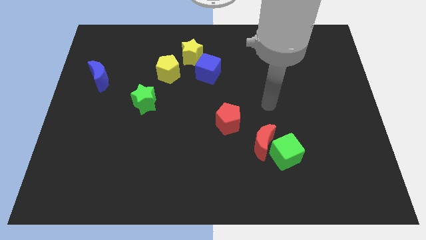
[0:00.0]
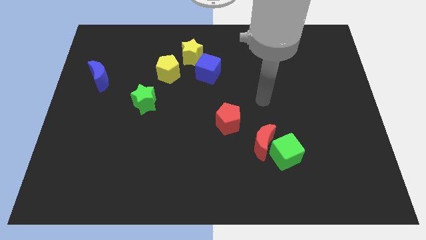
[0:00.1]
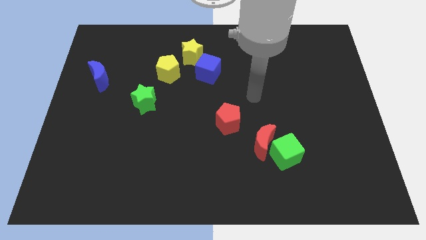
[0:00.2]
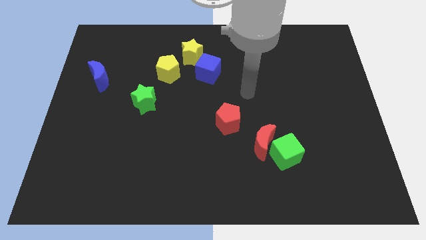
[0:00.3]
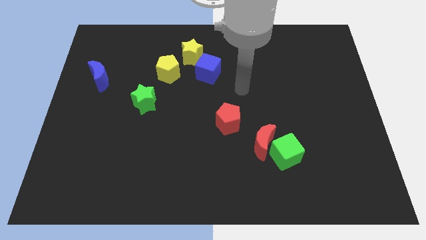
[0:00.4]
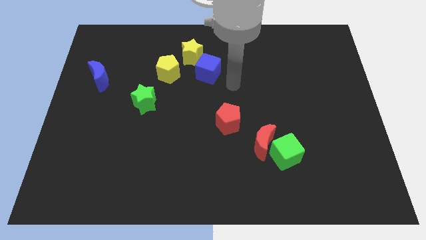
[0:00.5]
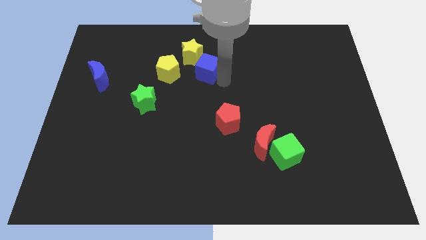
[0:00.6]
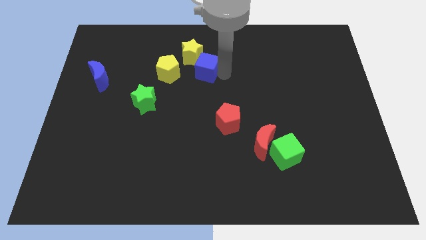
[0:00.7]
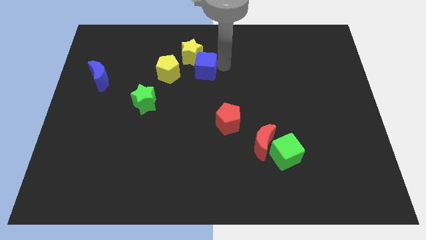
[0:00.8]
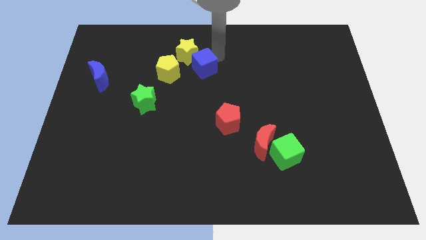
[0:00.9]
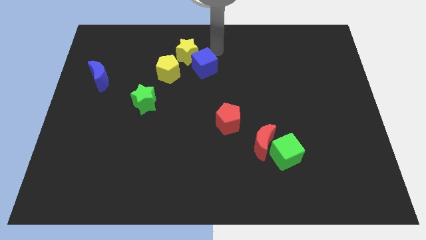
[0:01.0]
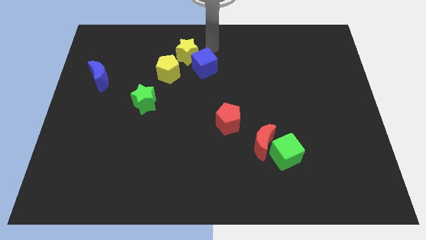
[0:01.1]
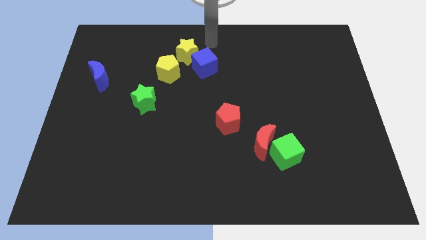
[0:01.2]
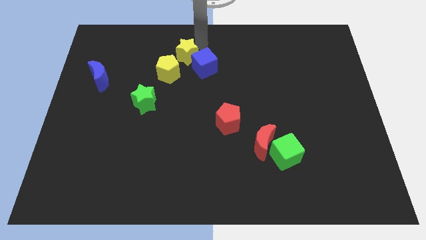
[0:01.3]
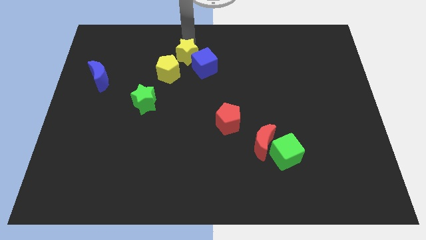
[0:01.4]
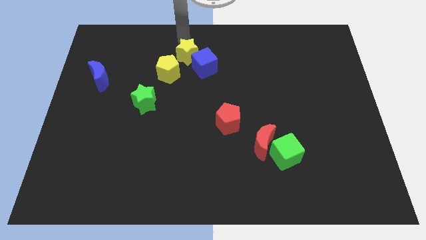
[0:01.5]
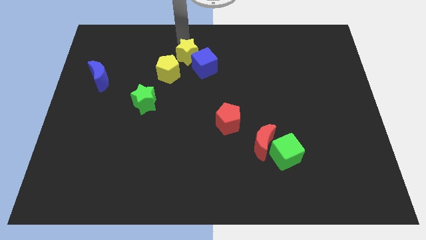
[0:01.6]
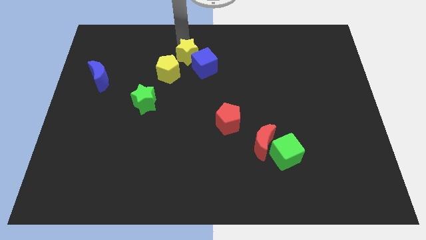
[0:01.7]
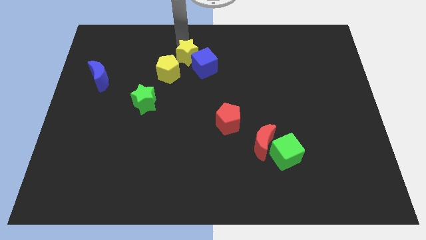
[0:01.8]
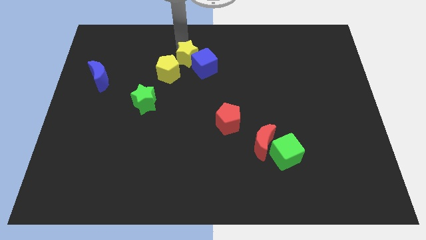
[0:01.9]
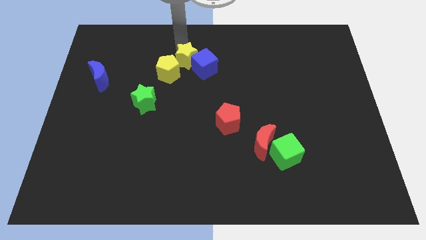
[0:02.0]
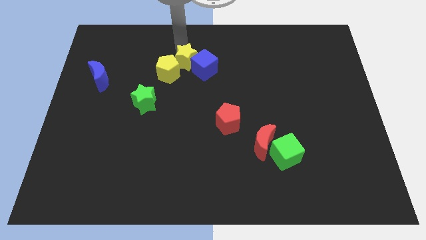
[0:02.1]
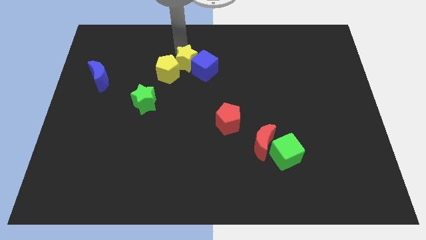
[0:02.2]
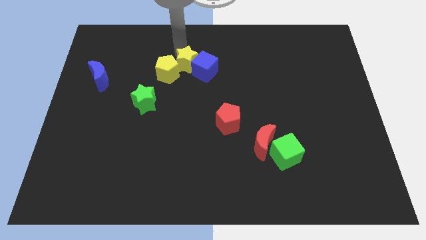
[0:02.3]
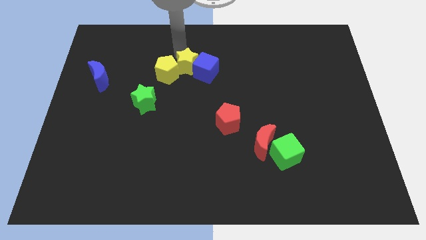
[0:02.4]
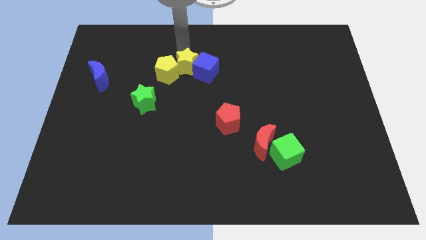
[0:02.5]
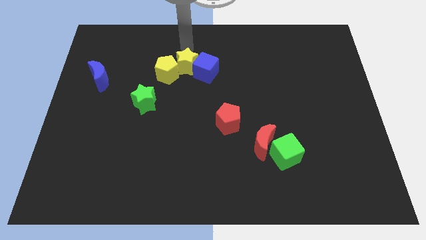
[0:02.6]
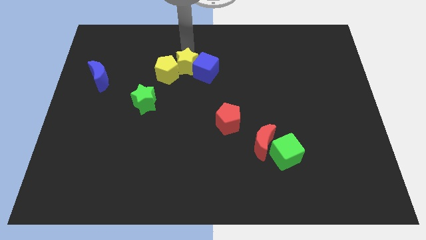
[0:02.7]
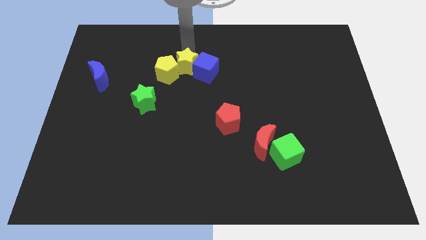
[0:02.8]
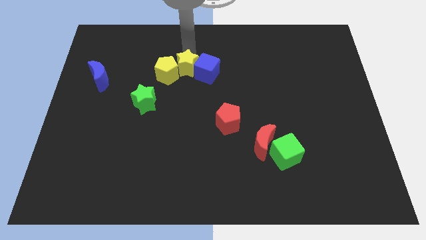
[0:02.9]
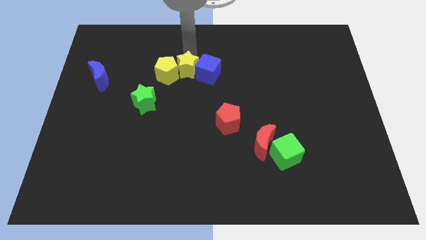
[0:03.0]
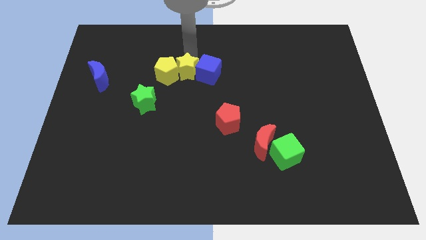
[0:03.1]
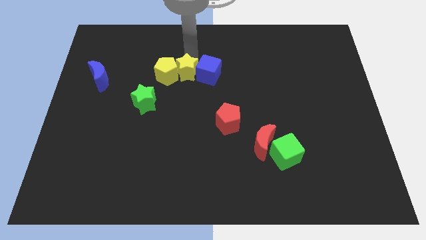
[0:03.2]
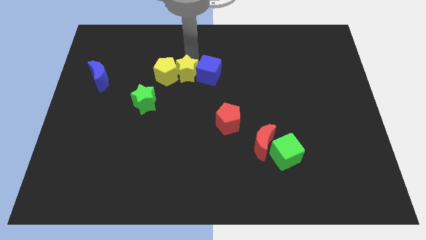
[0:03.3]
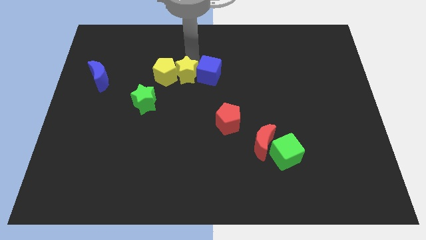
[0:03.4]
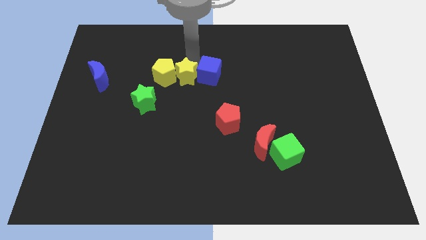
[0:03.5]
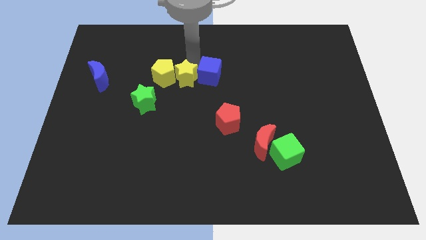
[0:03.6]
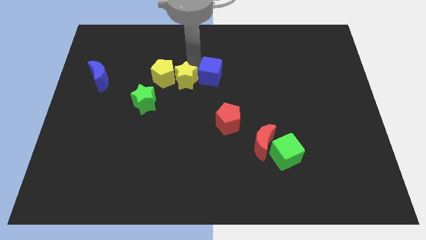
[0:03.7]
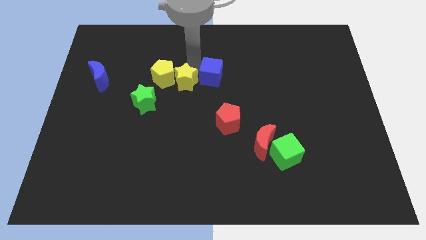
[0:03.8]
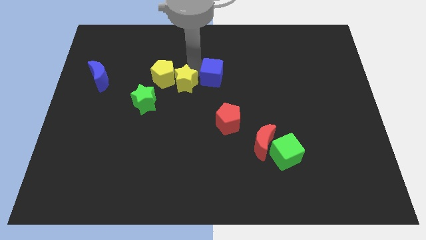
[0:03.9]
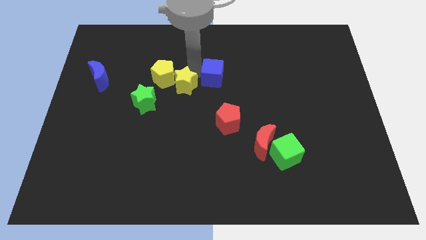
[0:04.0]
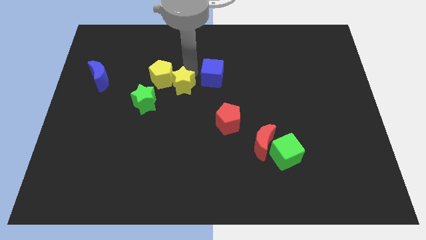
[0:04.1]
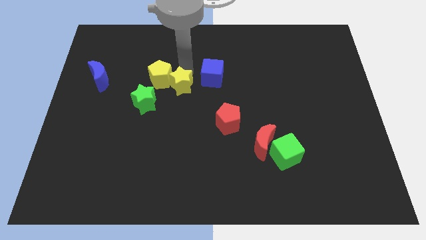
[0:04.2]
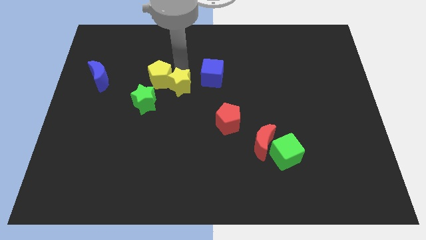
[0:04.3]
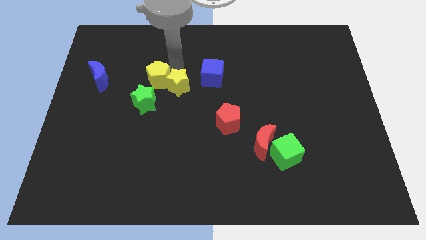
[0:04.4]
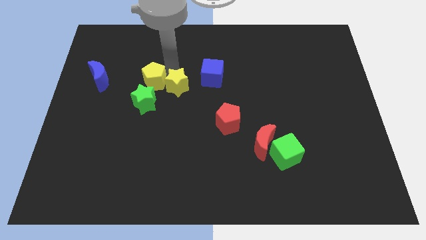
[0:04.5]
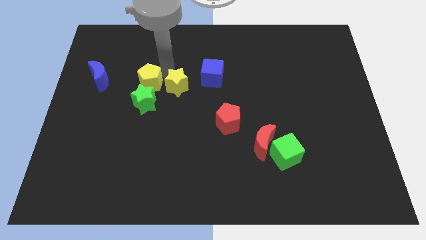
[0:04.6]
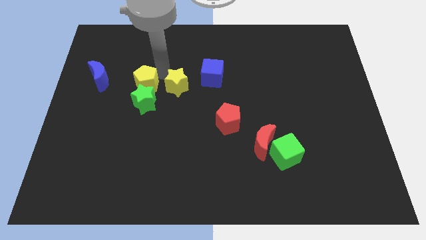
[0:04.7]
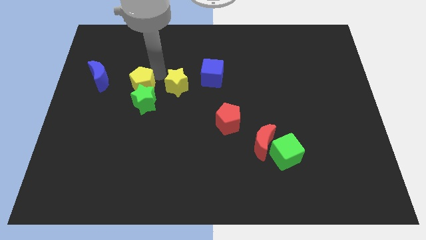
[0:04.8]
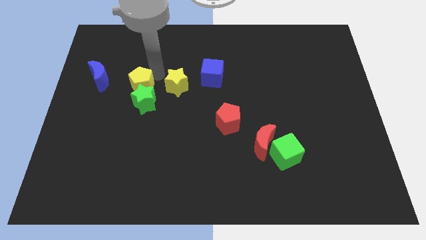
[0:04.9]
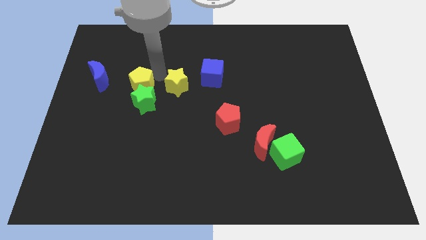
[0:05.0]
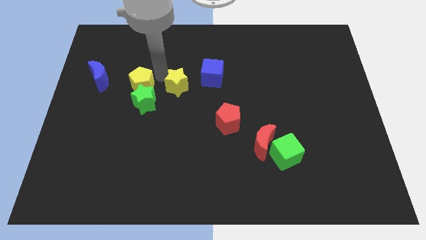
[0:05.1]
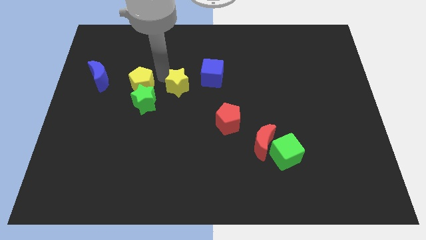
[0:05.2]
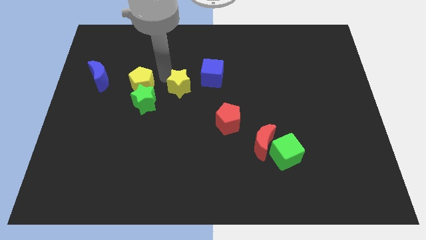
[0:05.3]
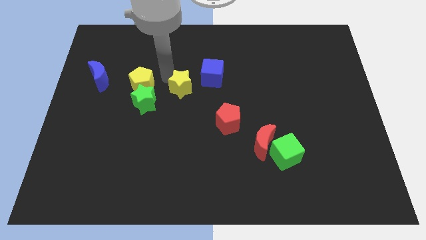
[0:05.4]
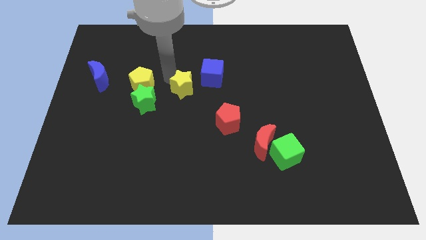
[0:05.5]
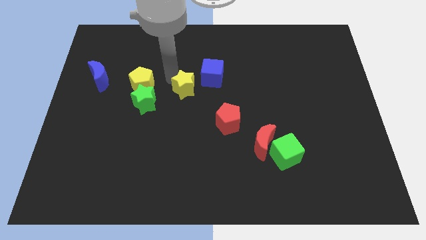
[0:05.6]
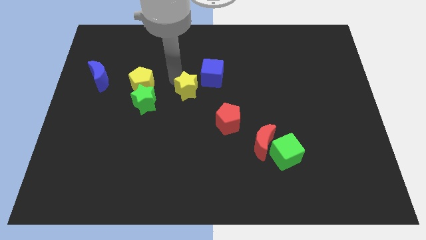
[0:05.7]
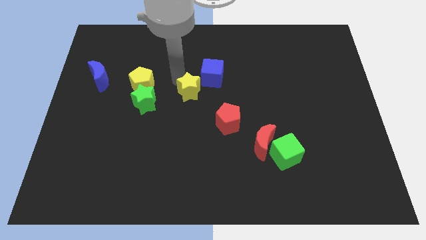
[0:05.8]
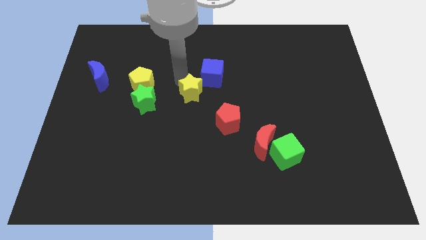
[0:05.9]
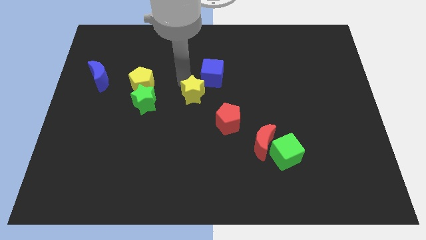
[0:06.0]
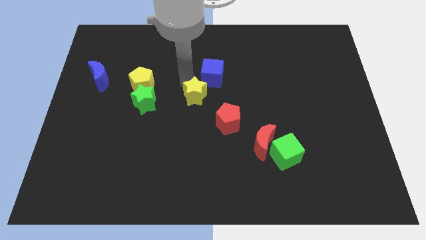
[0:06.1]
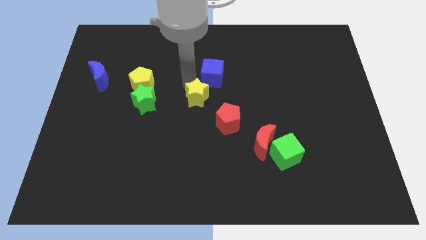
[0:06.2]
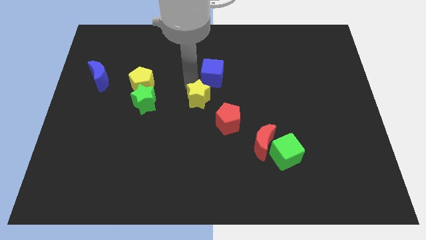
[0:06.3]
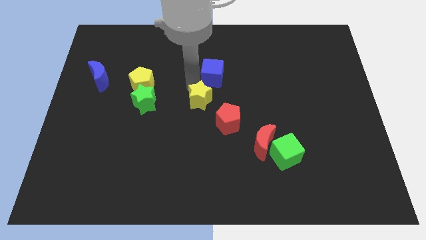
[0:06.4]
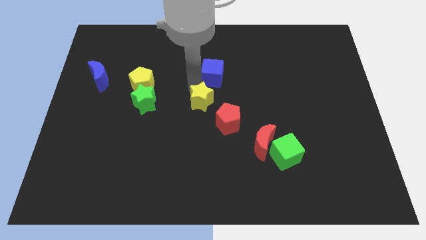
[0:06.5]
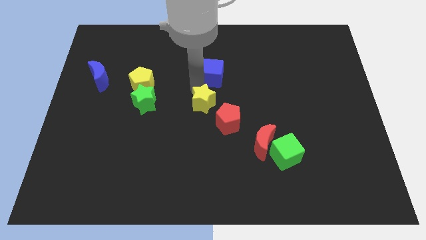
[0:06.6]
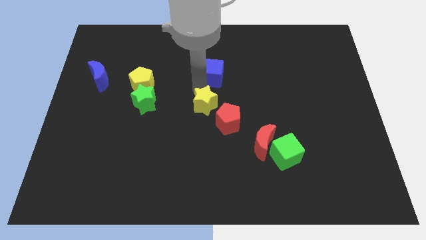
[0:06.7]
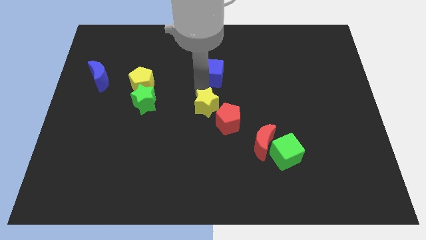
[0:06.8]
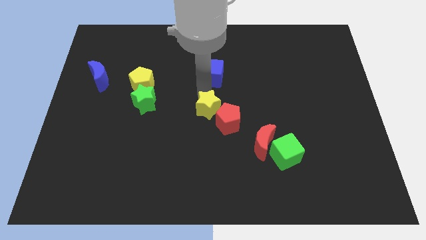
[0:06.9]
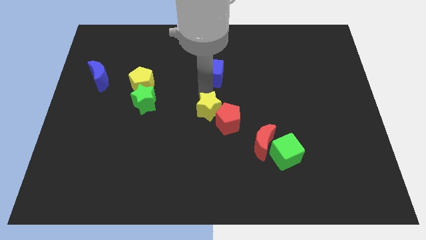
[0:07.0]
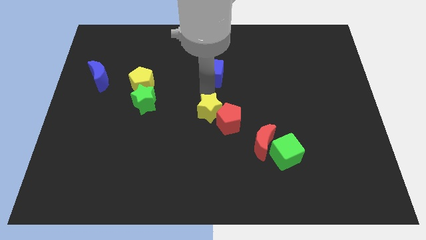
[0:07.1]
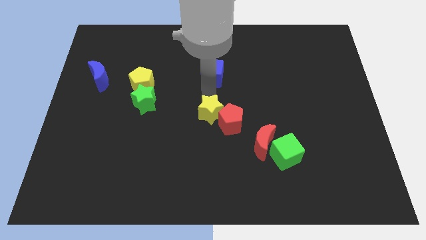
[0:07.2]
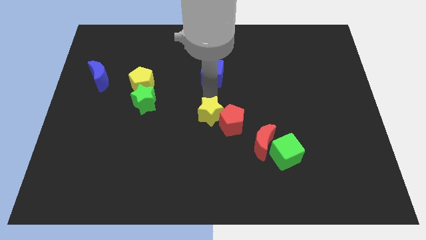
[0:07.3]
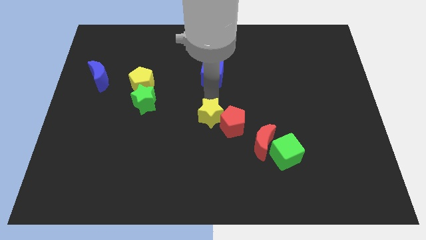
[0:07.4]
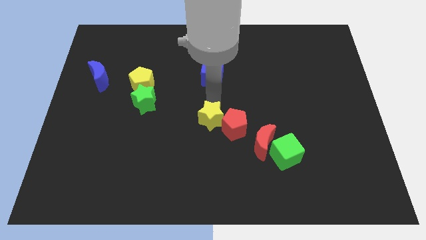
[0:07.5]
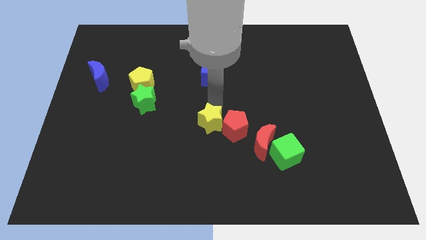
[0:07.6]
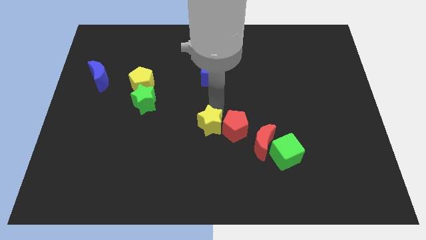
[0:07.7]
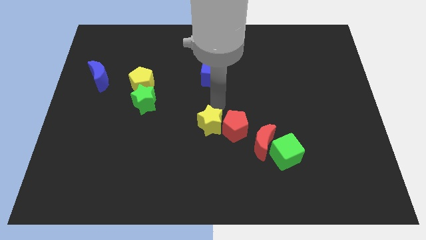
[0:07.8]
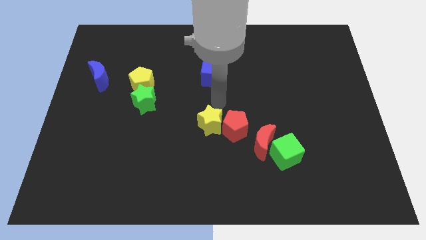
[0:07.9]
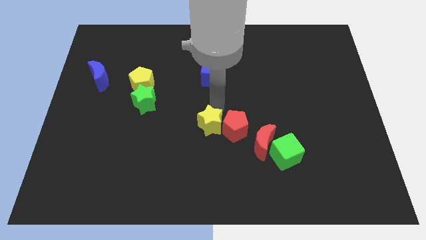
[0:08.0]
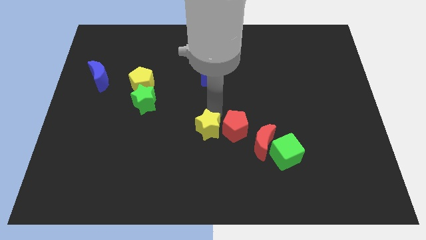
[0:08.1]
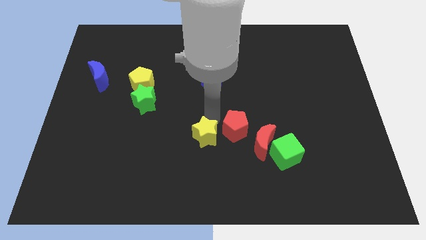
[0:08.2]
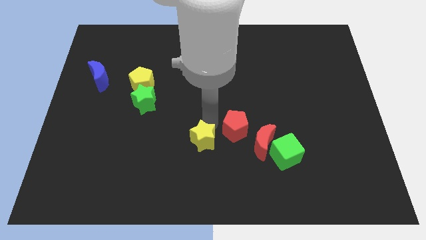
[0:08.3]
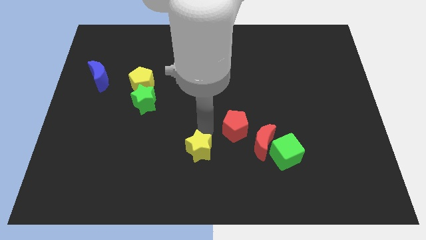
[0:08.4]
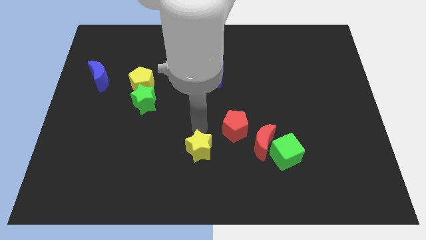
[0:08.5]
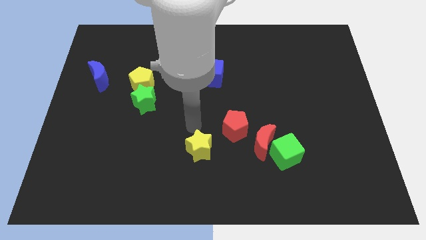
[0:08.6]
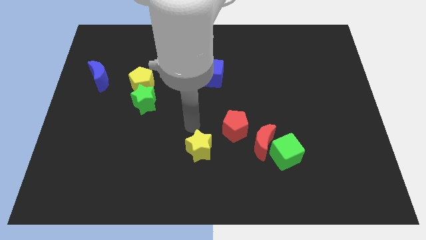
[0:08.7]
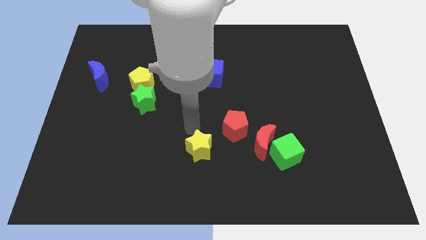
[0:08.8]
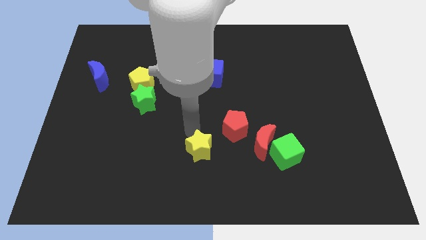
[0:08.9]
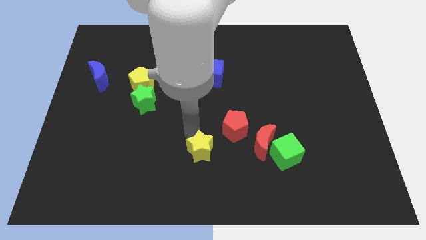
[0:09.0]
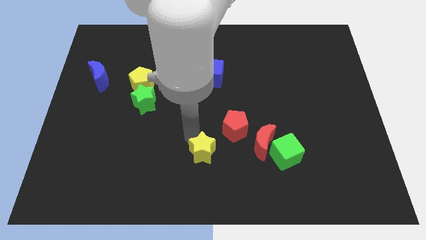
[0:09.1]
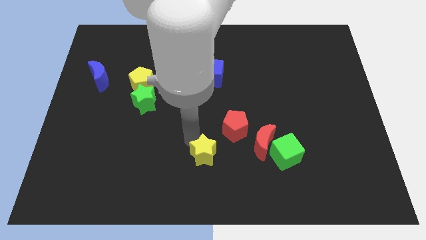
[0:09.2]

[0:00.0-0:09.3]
slide the yellow star to the bottom side
